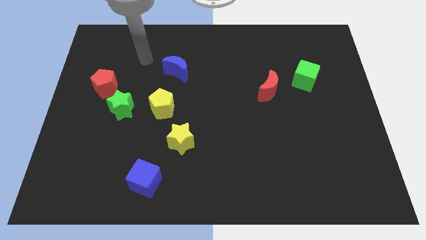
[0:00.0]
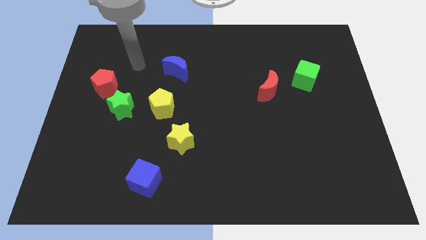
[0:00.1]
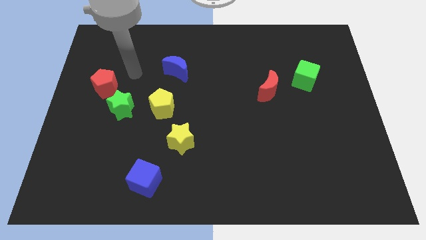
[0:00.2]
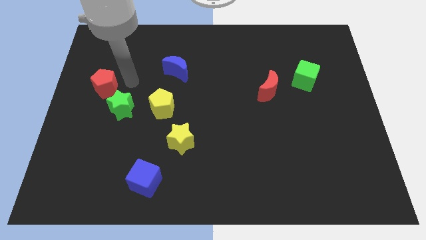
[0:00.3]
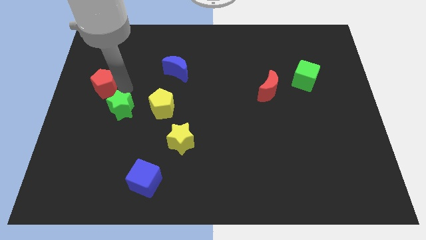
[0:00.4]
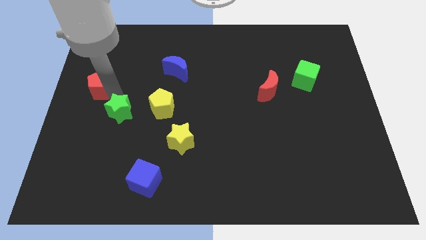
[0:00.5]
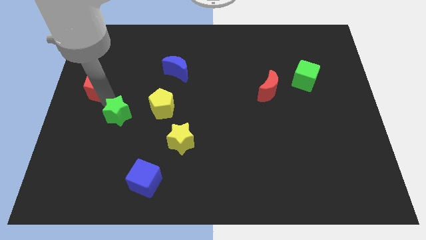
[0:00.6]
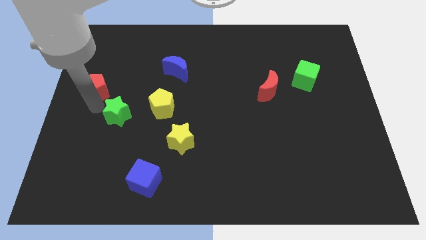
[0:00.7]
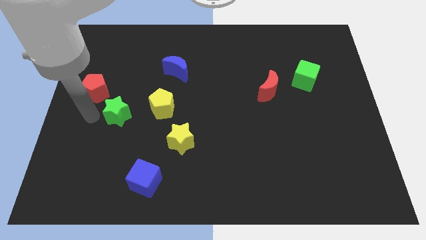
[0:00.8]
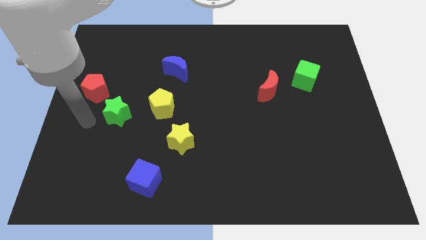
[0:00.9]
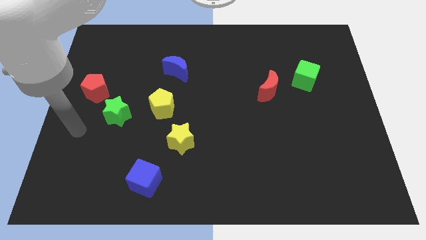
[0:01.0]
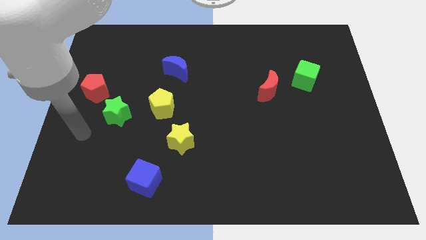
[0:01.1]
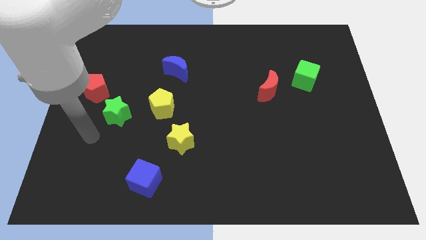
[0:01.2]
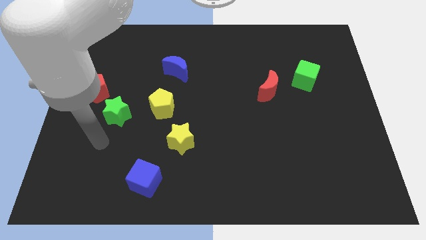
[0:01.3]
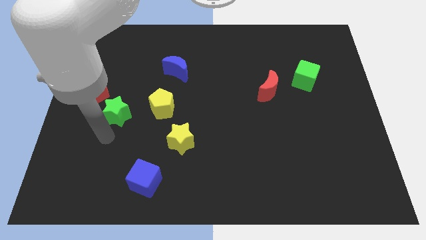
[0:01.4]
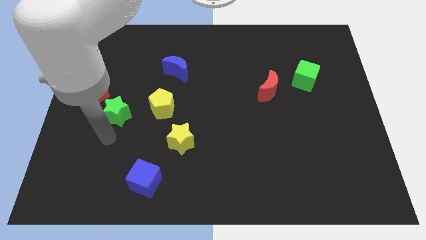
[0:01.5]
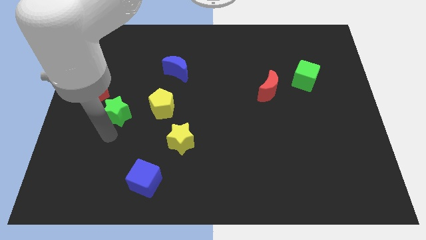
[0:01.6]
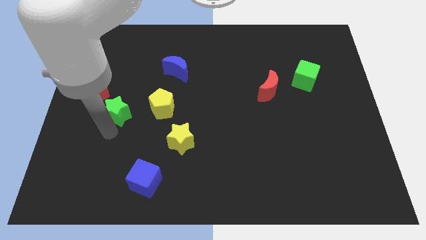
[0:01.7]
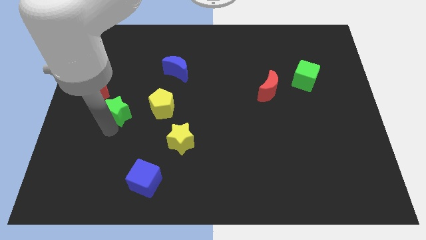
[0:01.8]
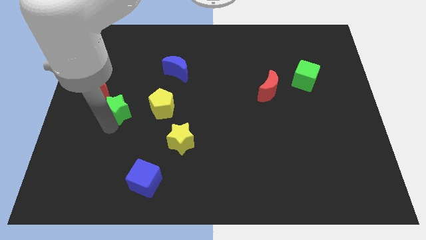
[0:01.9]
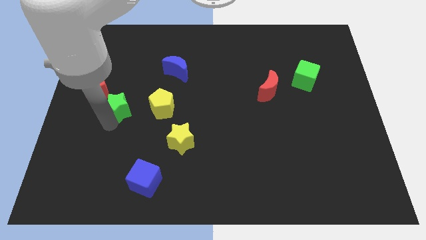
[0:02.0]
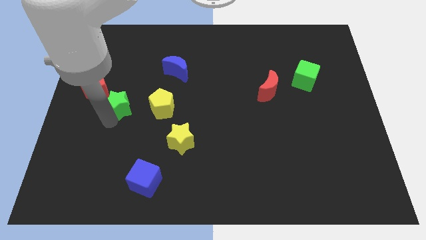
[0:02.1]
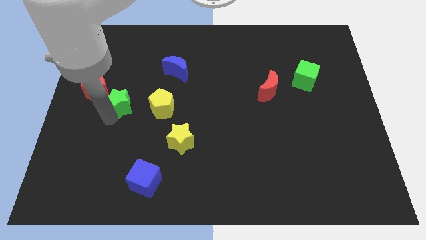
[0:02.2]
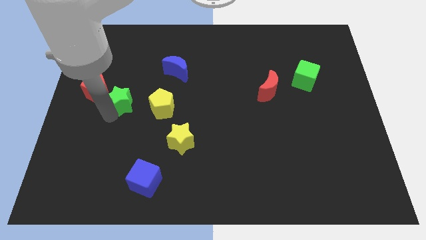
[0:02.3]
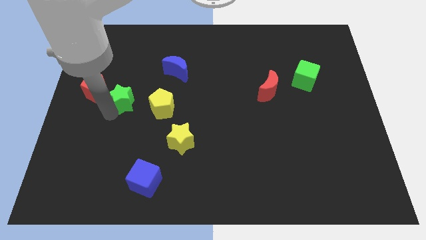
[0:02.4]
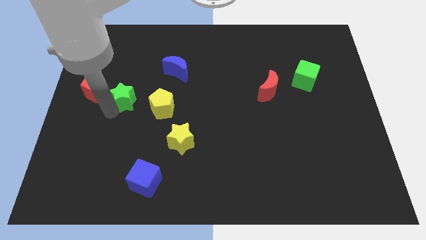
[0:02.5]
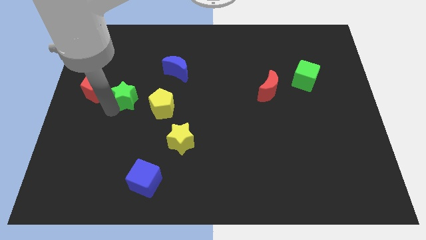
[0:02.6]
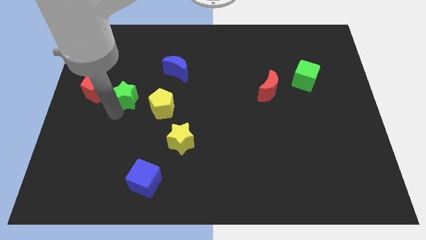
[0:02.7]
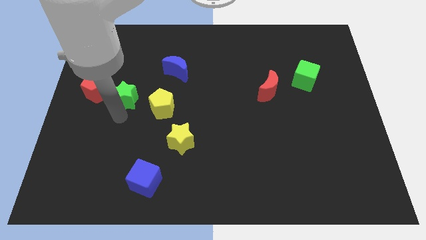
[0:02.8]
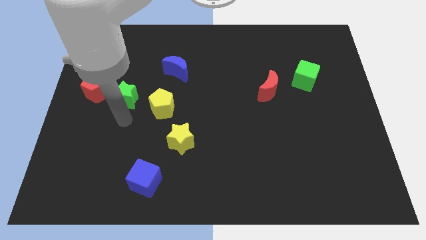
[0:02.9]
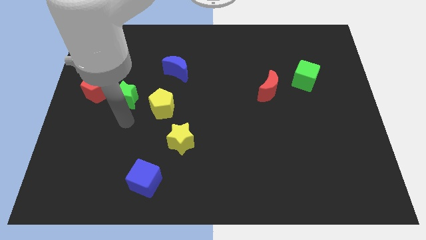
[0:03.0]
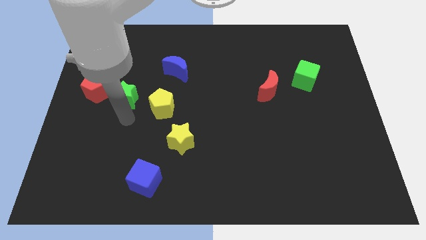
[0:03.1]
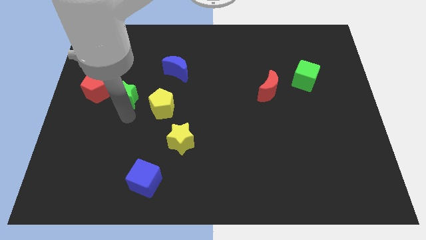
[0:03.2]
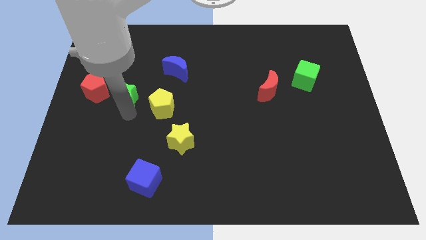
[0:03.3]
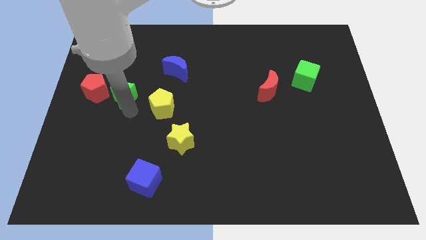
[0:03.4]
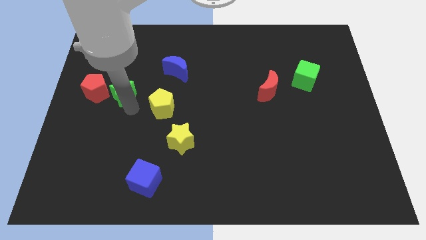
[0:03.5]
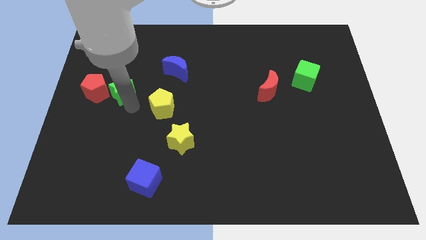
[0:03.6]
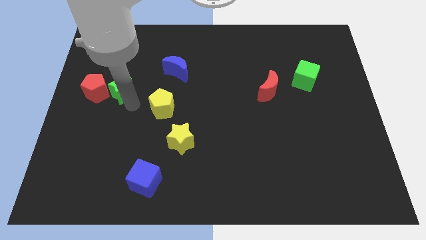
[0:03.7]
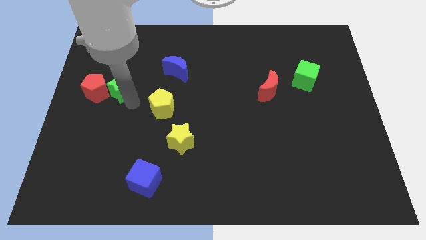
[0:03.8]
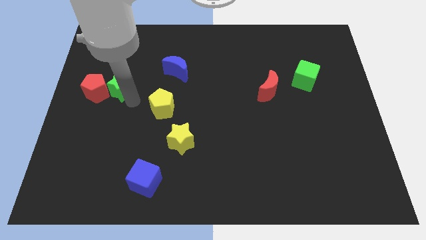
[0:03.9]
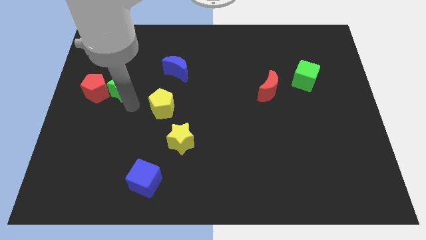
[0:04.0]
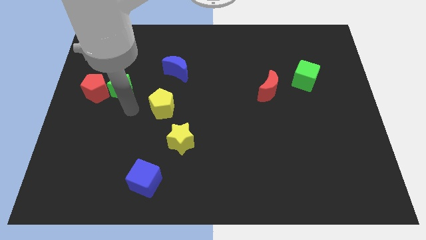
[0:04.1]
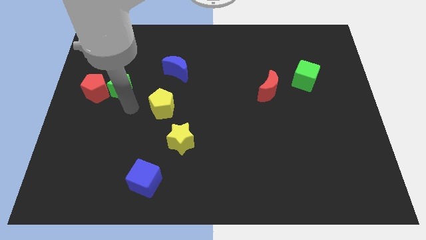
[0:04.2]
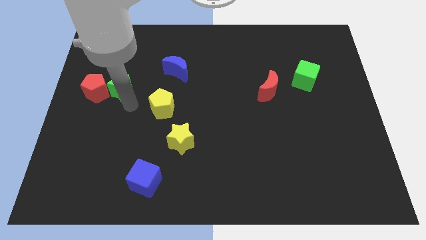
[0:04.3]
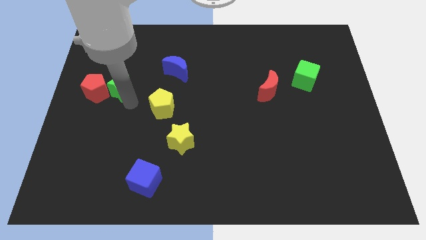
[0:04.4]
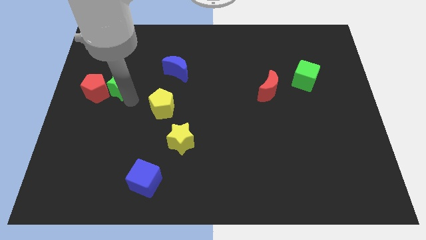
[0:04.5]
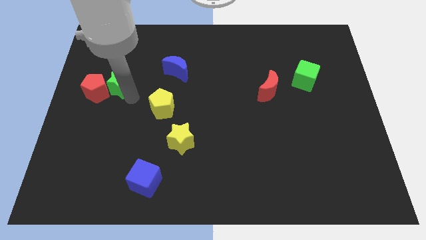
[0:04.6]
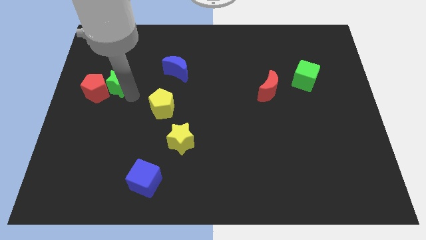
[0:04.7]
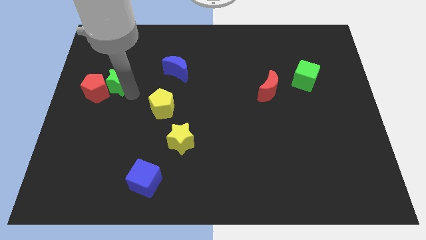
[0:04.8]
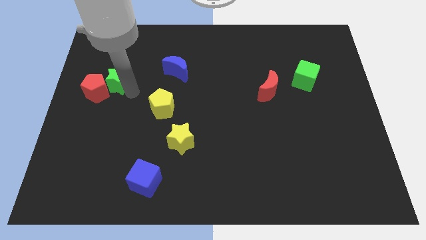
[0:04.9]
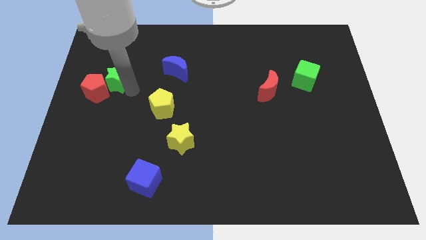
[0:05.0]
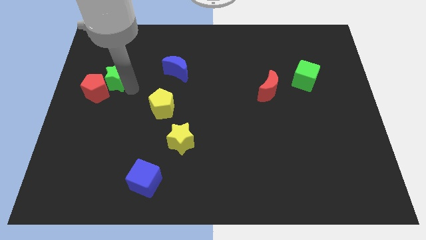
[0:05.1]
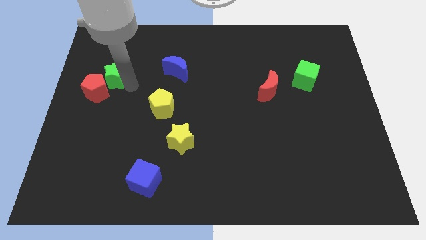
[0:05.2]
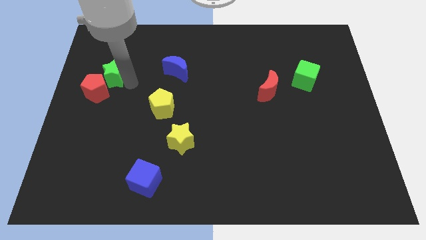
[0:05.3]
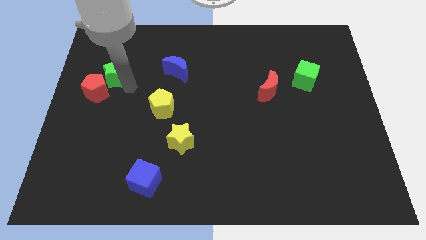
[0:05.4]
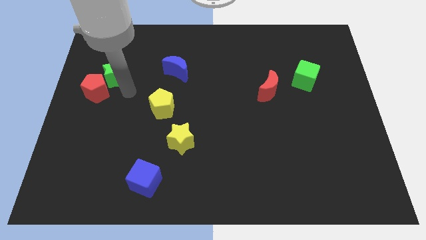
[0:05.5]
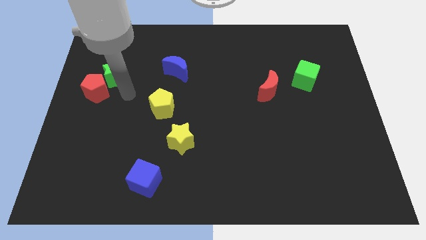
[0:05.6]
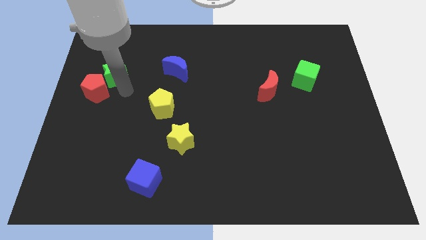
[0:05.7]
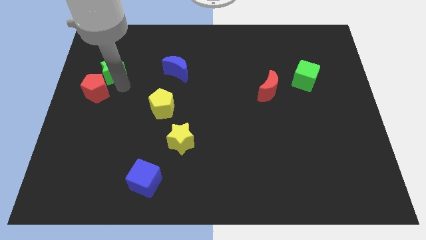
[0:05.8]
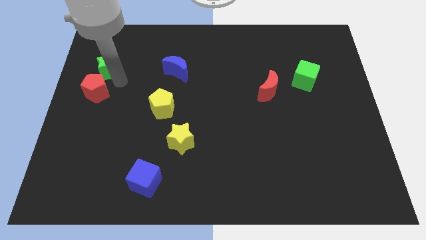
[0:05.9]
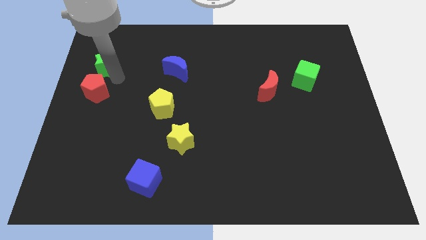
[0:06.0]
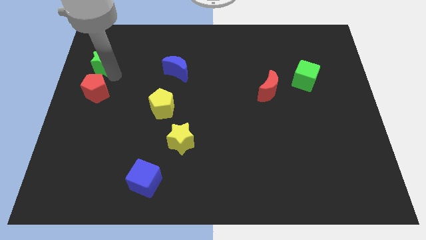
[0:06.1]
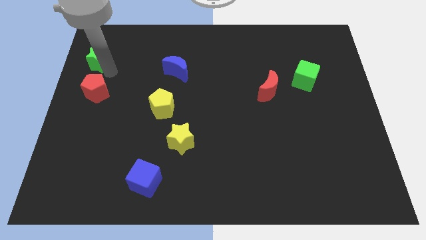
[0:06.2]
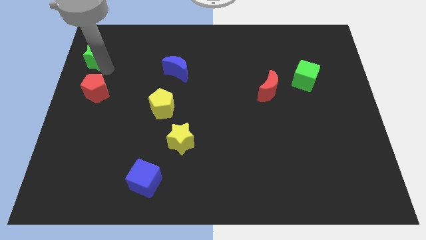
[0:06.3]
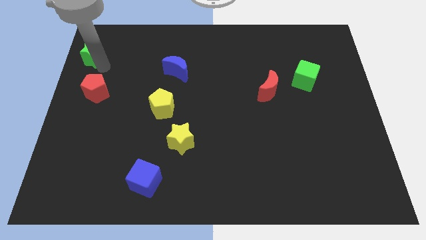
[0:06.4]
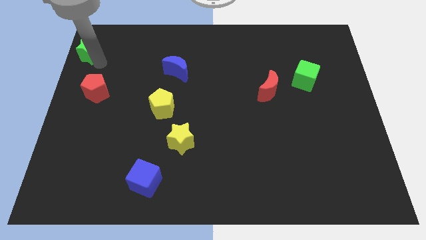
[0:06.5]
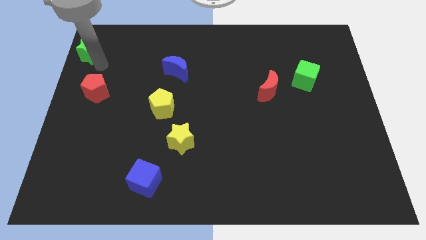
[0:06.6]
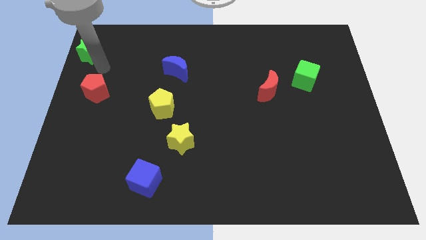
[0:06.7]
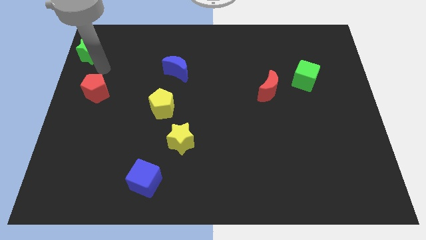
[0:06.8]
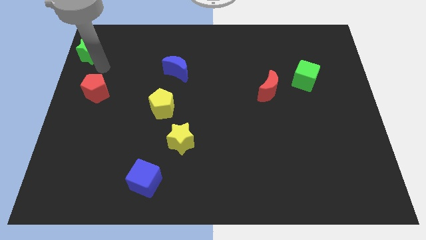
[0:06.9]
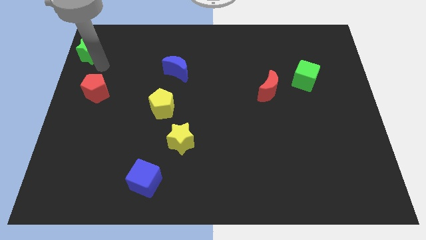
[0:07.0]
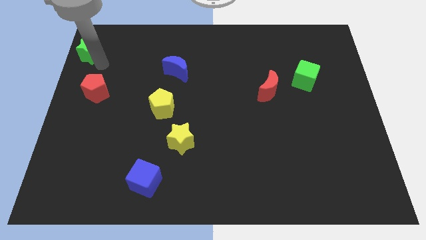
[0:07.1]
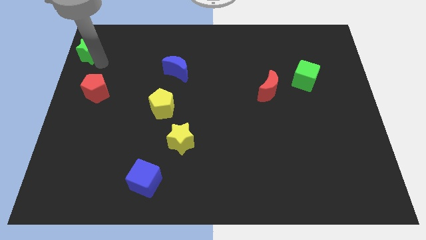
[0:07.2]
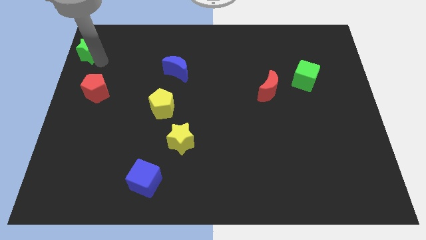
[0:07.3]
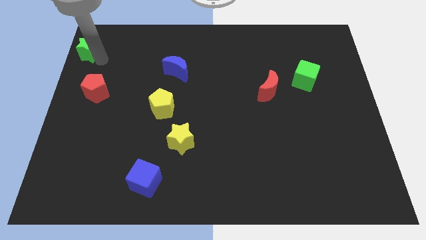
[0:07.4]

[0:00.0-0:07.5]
put the green star to the upper left corner

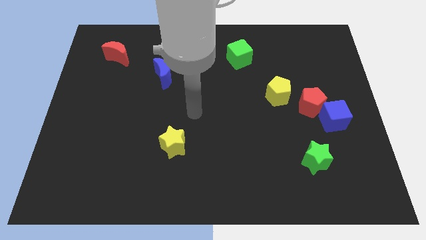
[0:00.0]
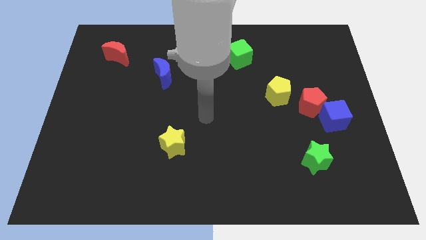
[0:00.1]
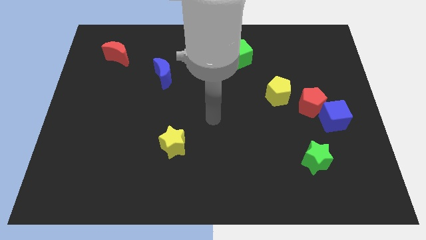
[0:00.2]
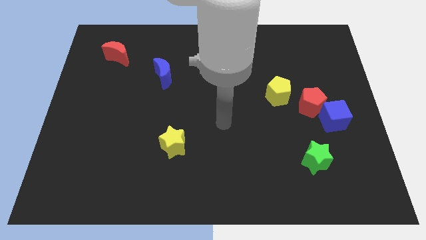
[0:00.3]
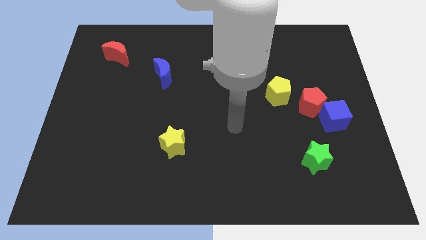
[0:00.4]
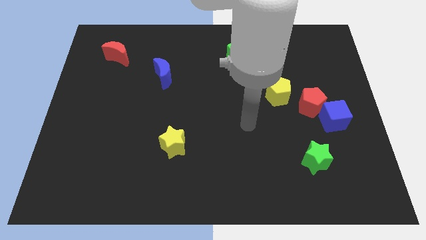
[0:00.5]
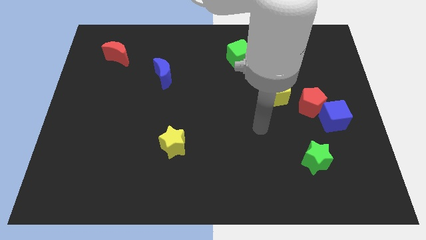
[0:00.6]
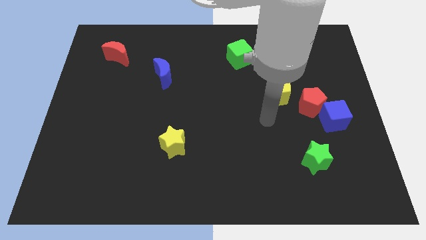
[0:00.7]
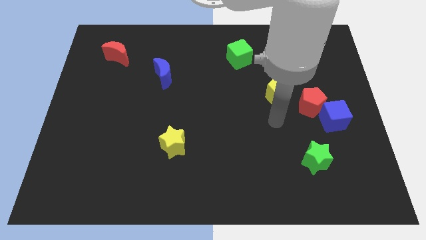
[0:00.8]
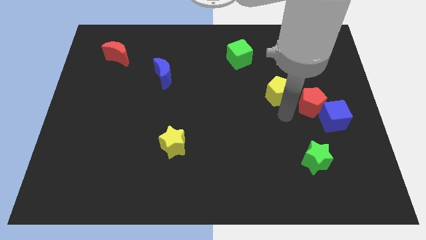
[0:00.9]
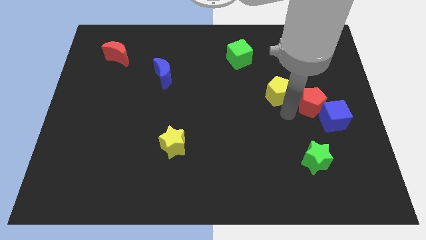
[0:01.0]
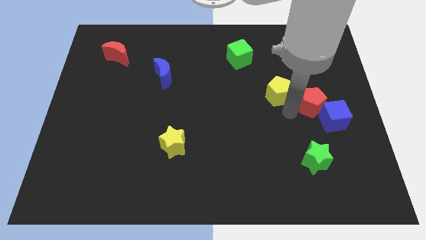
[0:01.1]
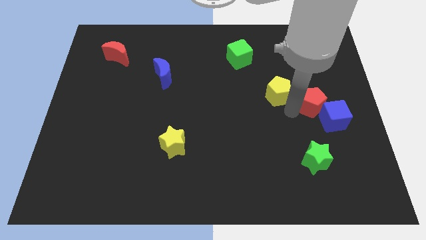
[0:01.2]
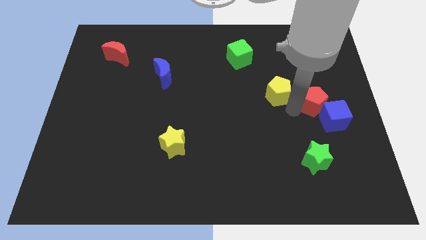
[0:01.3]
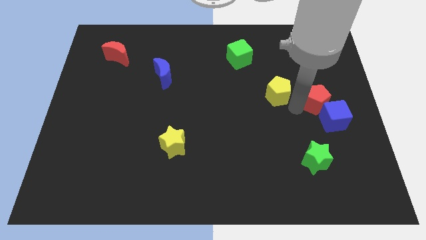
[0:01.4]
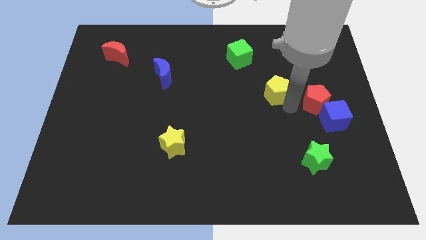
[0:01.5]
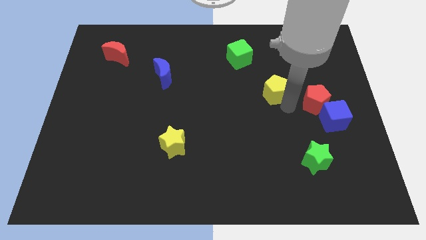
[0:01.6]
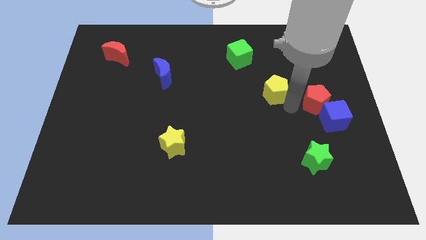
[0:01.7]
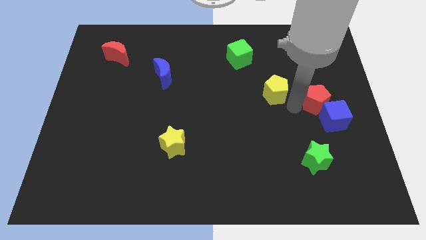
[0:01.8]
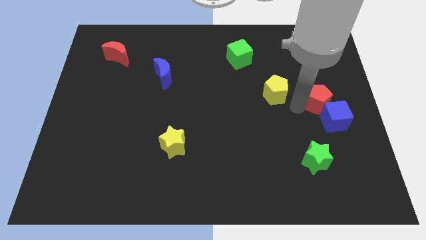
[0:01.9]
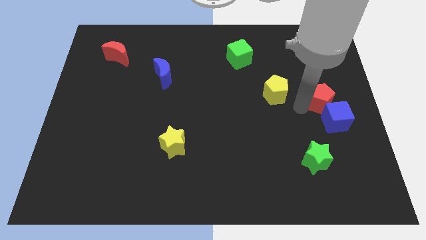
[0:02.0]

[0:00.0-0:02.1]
put the red pentagon to the right side
